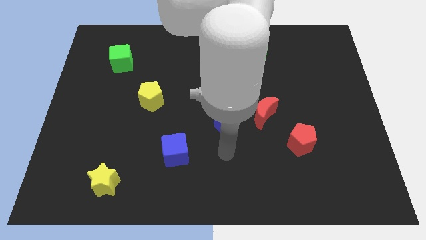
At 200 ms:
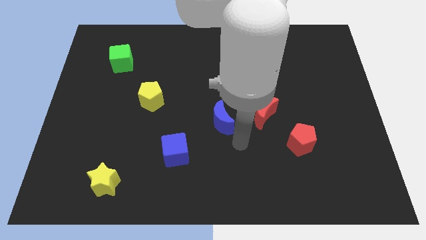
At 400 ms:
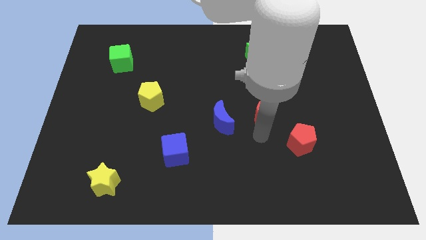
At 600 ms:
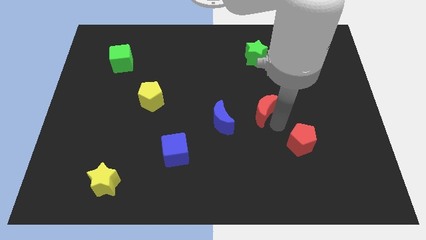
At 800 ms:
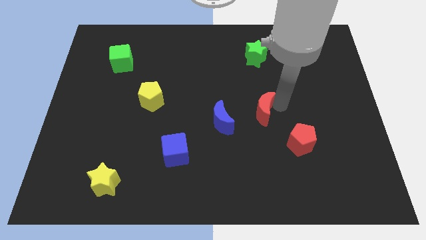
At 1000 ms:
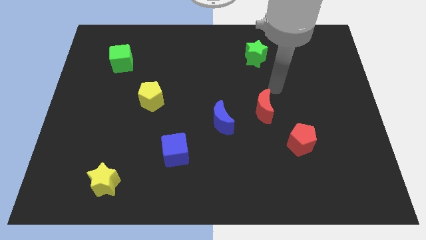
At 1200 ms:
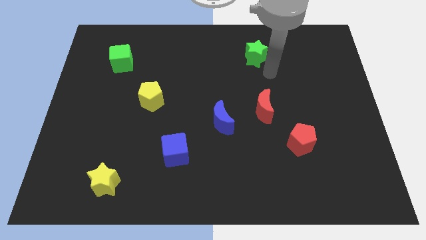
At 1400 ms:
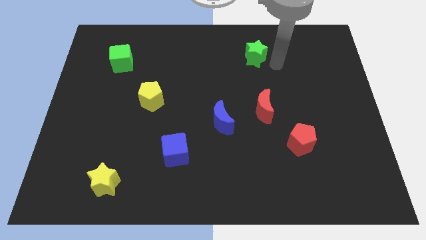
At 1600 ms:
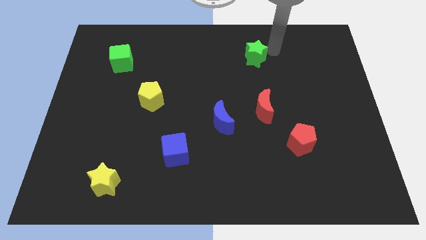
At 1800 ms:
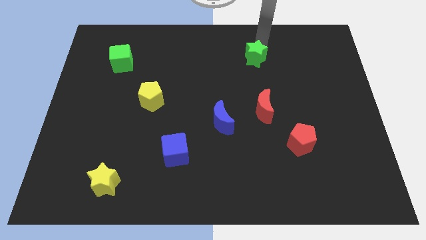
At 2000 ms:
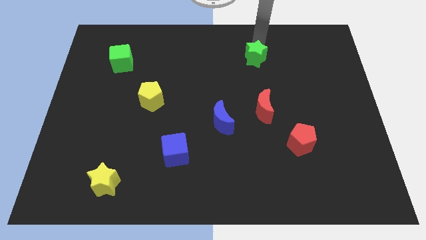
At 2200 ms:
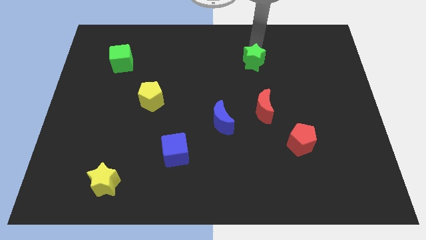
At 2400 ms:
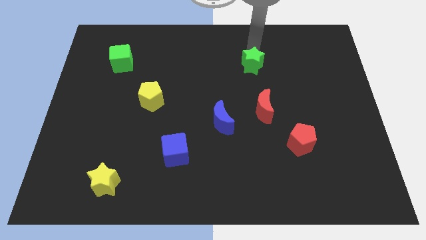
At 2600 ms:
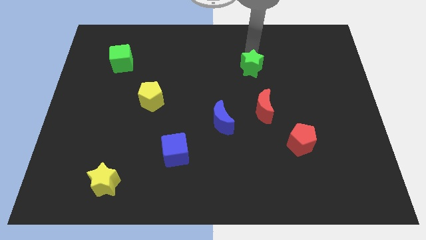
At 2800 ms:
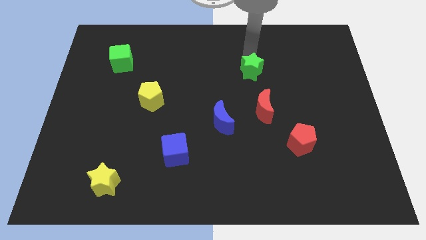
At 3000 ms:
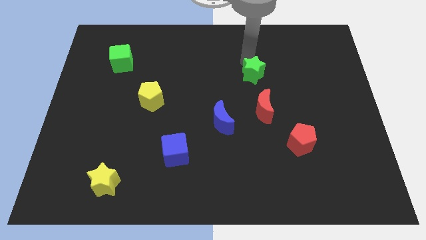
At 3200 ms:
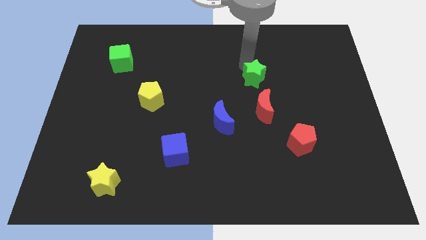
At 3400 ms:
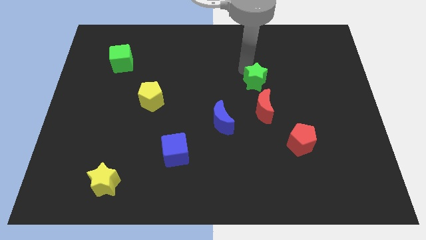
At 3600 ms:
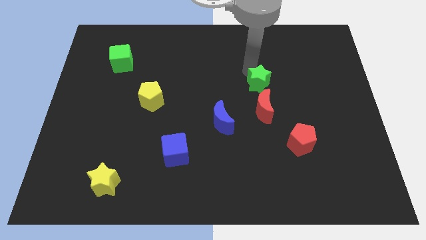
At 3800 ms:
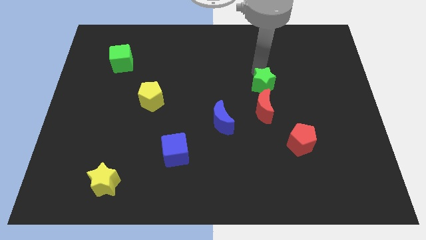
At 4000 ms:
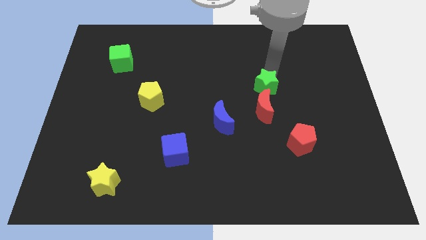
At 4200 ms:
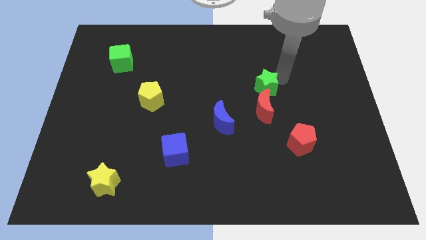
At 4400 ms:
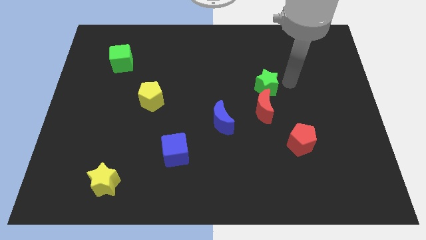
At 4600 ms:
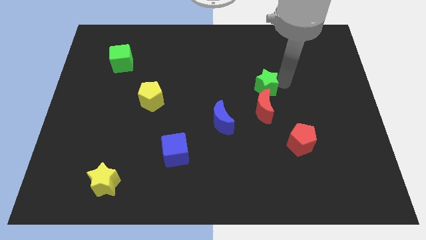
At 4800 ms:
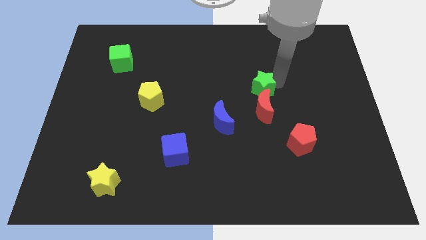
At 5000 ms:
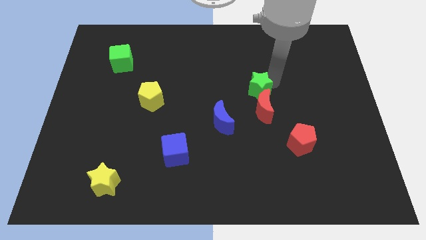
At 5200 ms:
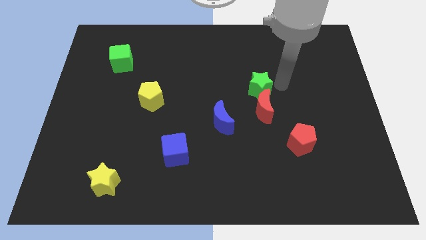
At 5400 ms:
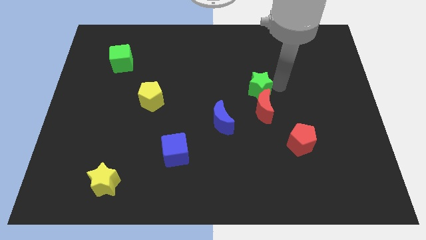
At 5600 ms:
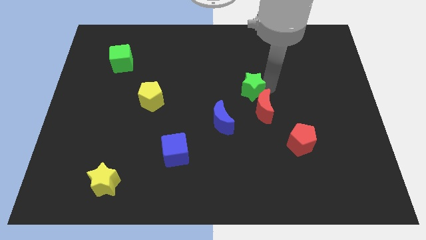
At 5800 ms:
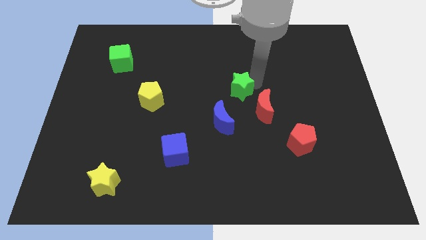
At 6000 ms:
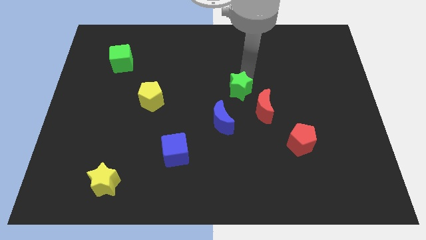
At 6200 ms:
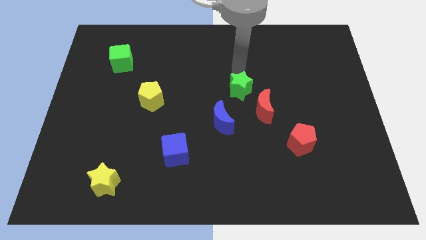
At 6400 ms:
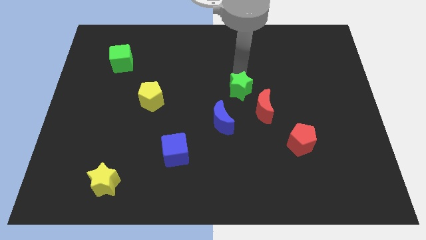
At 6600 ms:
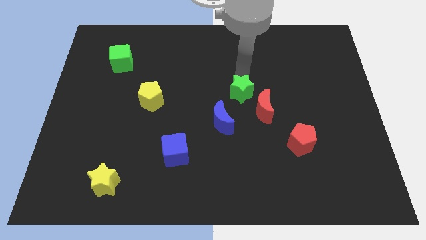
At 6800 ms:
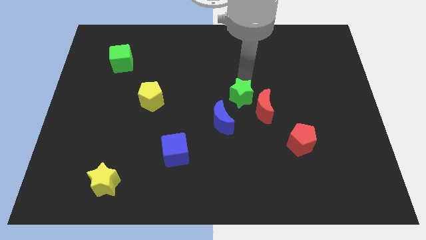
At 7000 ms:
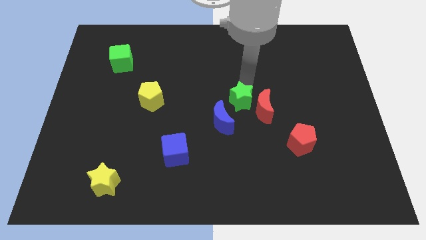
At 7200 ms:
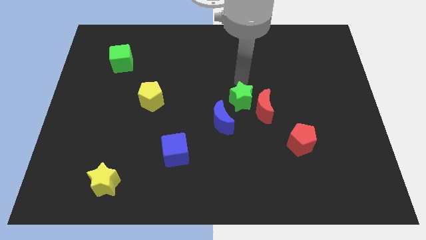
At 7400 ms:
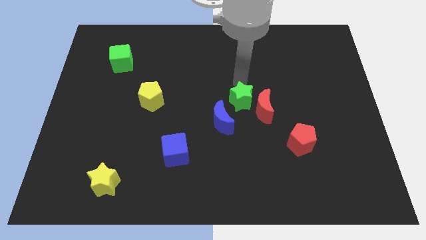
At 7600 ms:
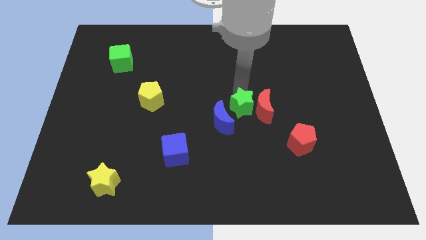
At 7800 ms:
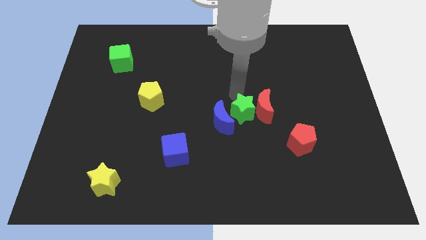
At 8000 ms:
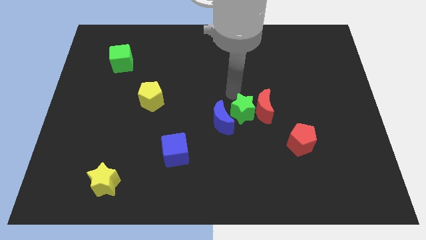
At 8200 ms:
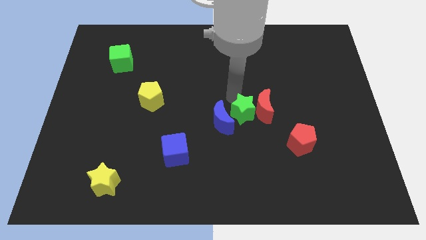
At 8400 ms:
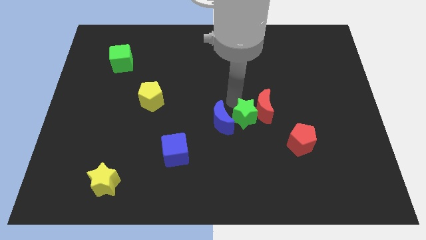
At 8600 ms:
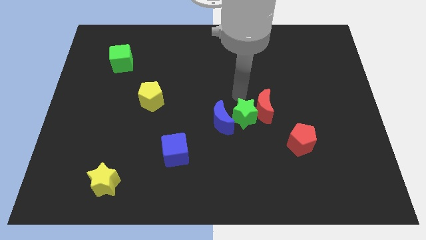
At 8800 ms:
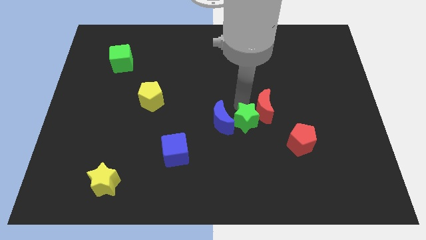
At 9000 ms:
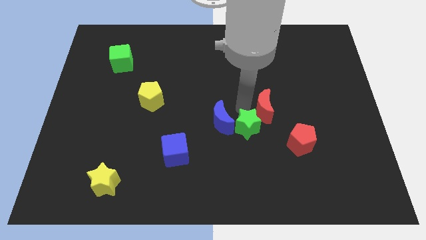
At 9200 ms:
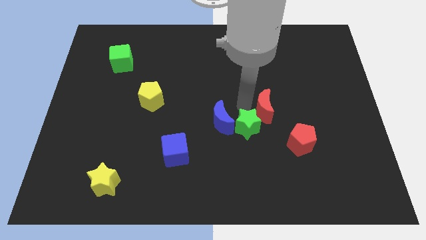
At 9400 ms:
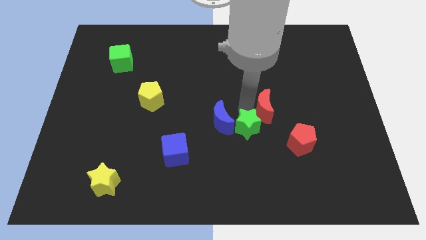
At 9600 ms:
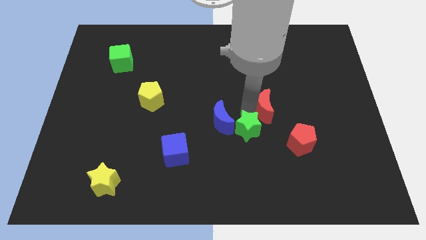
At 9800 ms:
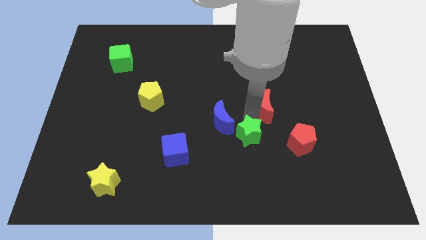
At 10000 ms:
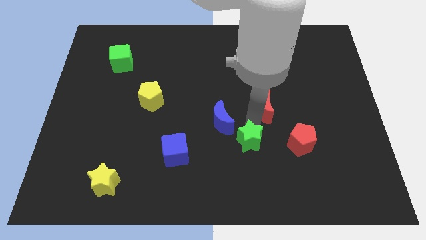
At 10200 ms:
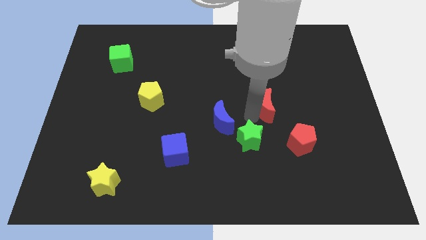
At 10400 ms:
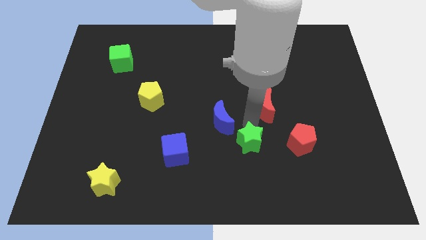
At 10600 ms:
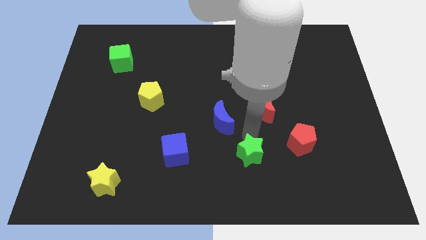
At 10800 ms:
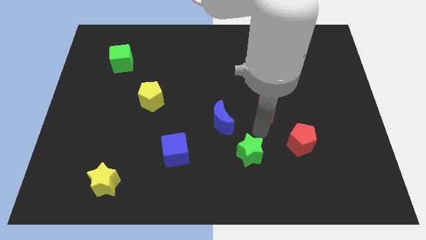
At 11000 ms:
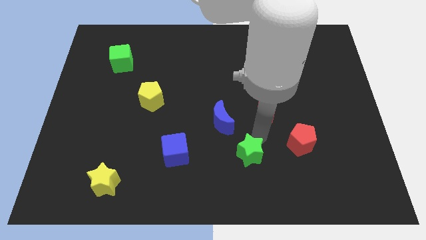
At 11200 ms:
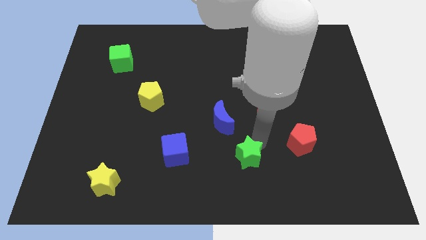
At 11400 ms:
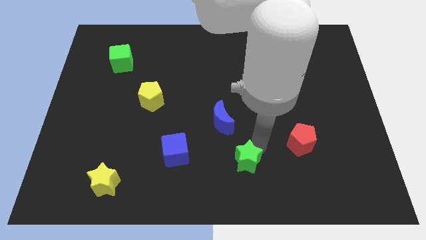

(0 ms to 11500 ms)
put the green star to the bottom side
